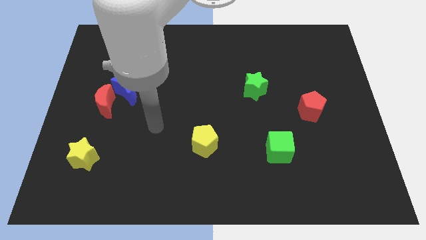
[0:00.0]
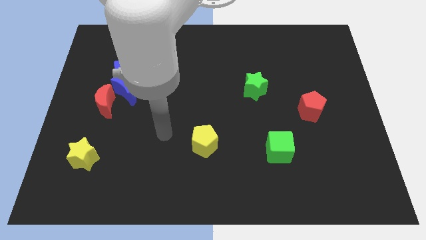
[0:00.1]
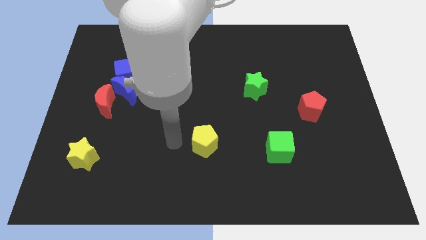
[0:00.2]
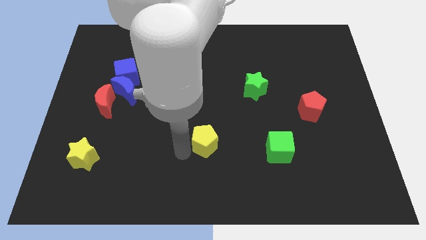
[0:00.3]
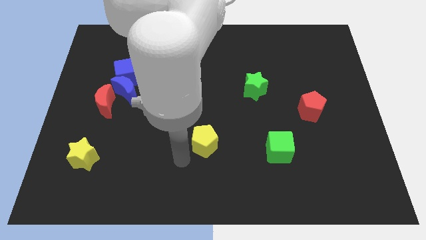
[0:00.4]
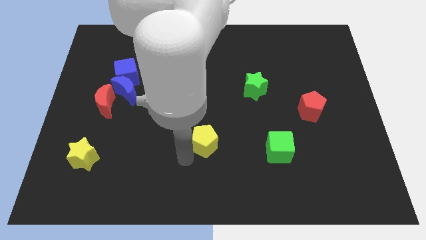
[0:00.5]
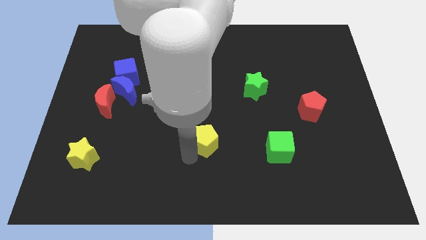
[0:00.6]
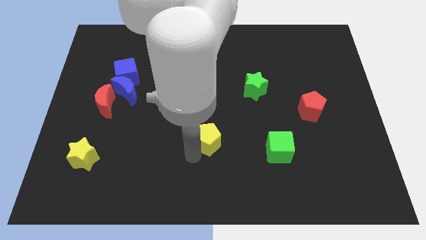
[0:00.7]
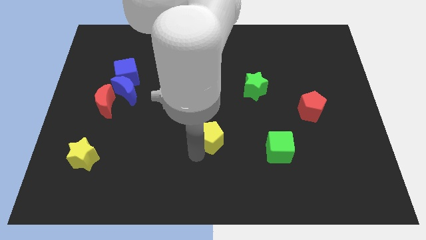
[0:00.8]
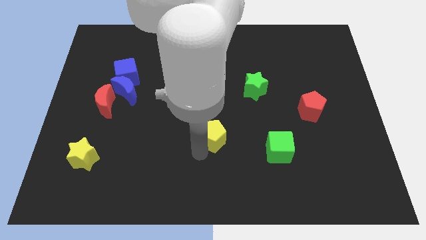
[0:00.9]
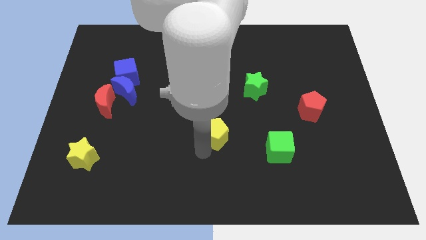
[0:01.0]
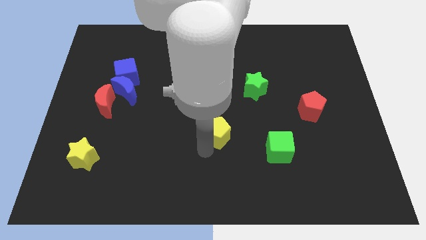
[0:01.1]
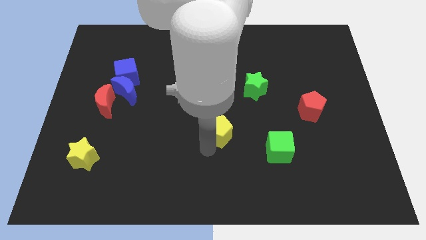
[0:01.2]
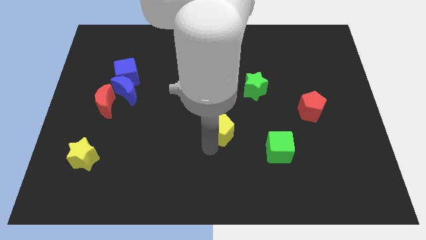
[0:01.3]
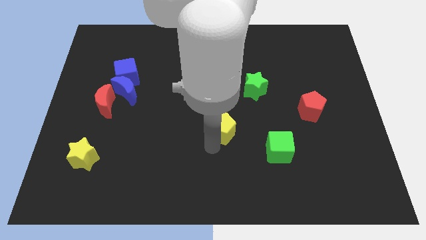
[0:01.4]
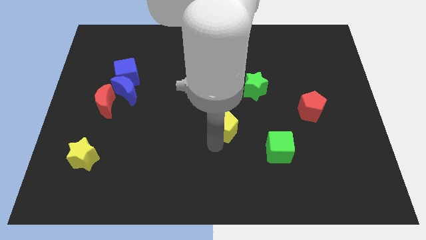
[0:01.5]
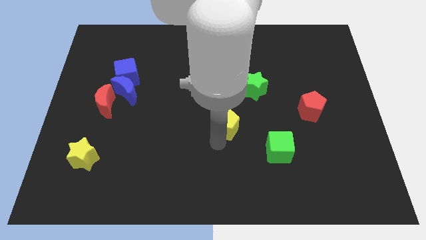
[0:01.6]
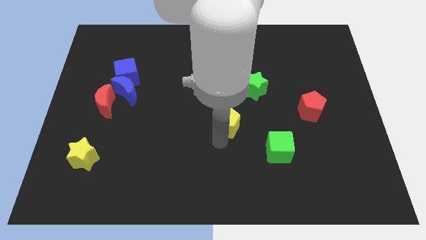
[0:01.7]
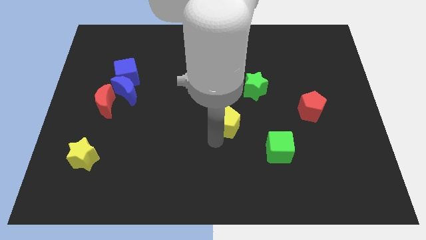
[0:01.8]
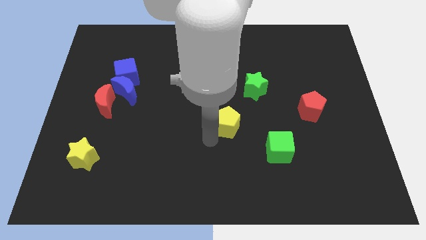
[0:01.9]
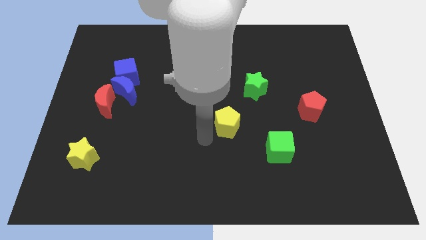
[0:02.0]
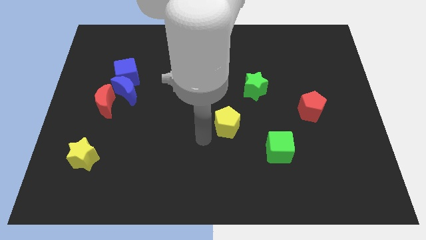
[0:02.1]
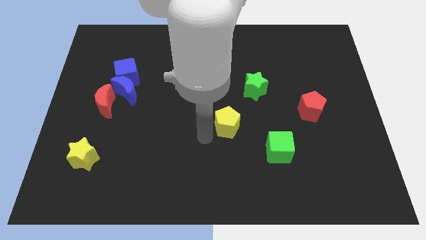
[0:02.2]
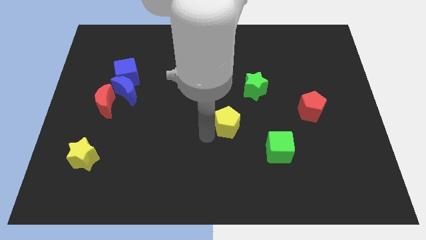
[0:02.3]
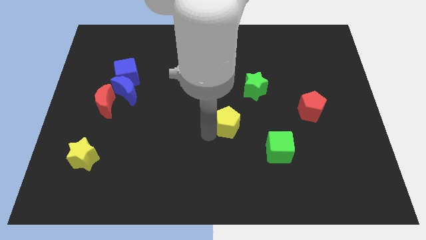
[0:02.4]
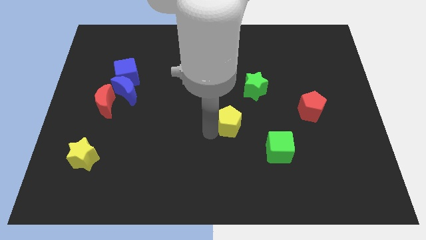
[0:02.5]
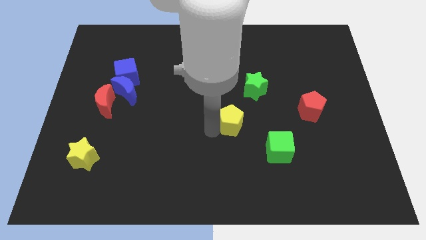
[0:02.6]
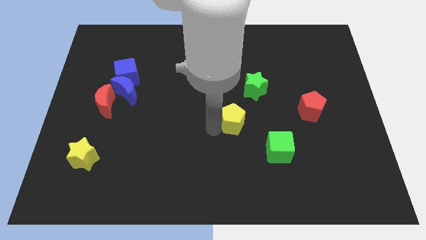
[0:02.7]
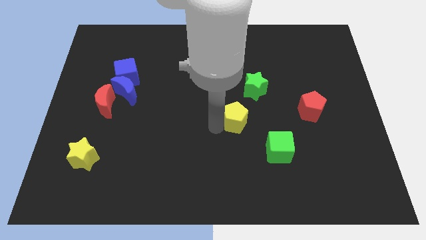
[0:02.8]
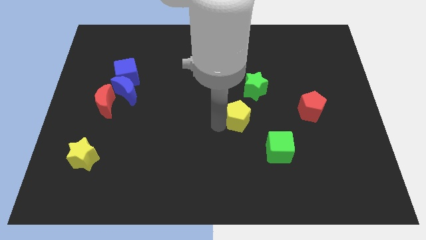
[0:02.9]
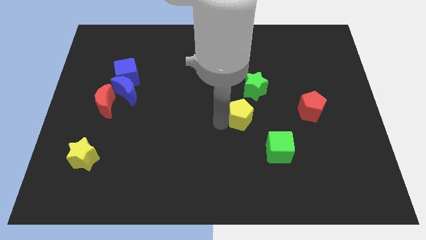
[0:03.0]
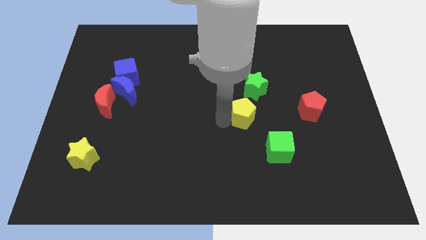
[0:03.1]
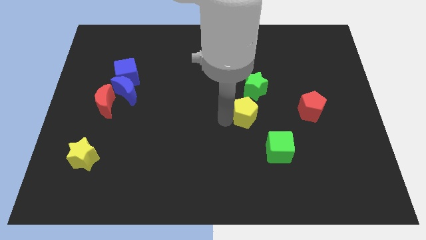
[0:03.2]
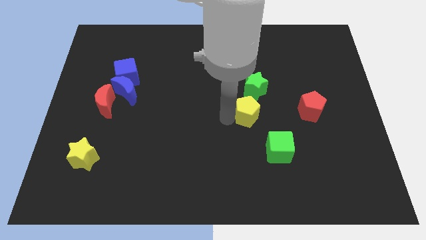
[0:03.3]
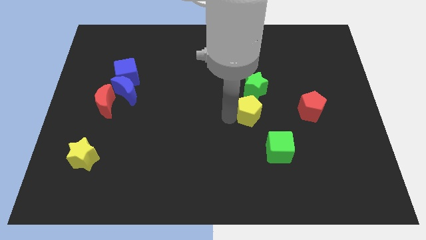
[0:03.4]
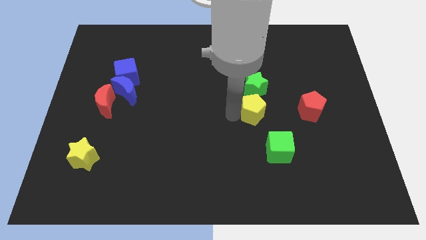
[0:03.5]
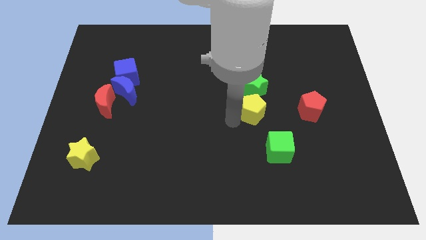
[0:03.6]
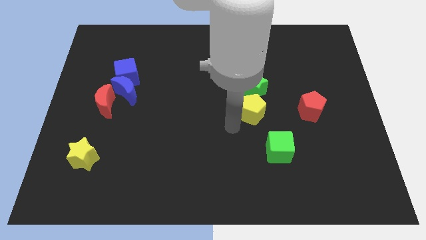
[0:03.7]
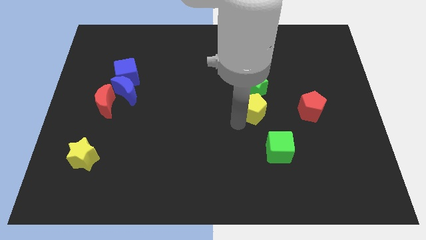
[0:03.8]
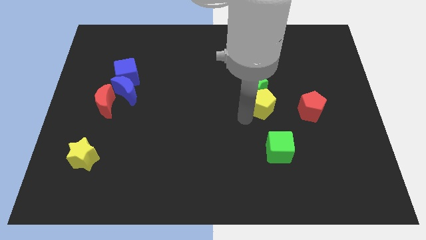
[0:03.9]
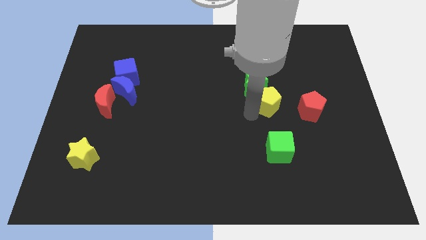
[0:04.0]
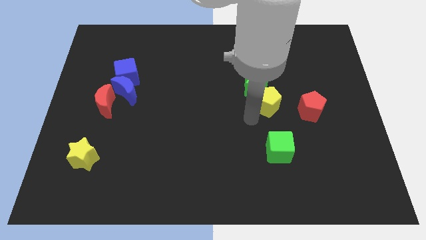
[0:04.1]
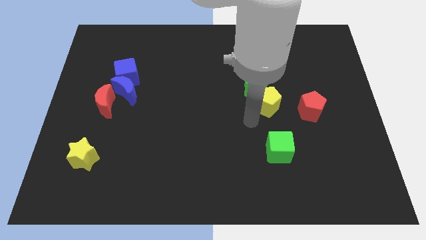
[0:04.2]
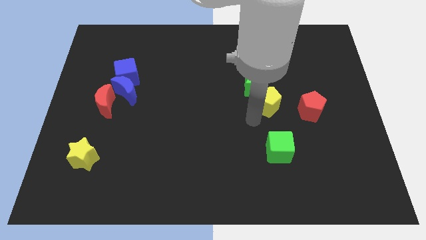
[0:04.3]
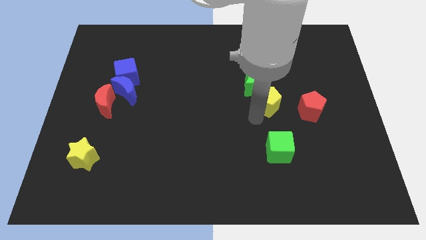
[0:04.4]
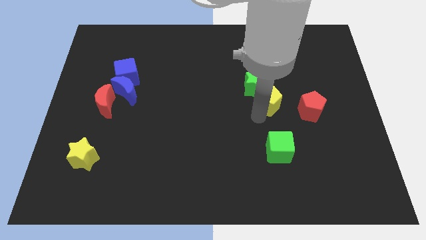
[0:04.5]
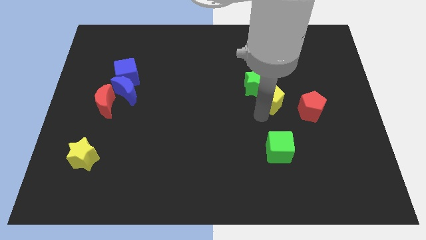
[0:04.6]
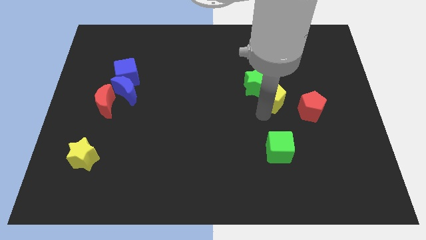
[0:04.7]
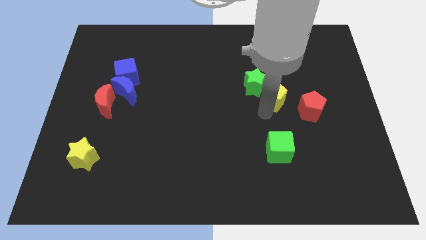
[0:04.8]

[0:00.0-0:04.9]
push the yellow pentagon up and to the right

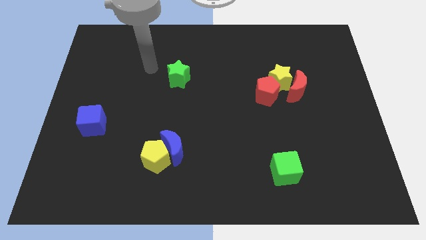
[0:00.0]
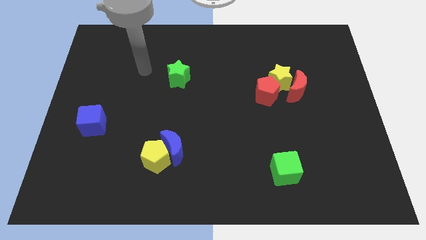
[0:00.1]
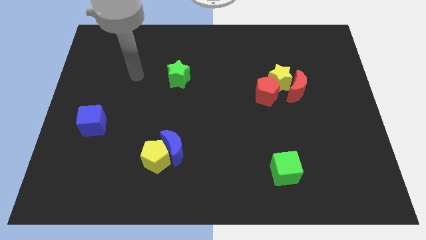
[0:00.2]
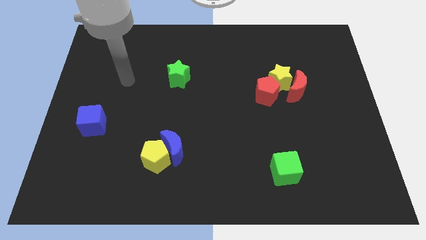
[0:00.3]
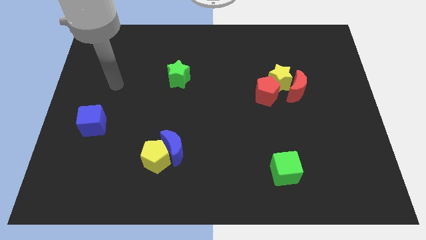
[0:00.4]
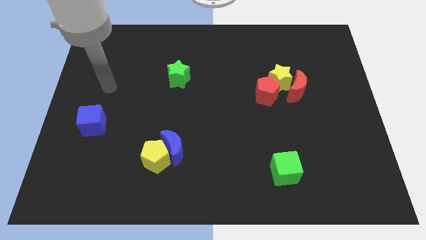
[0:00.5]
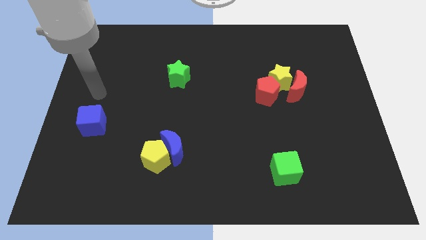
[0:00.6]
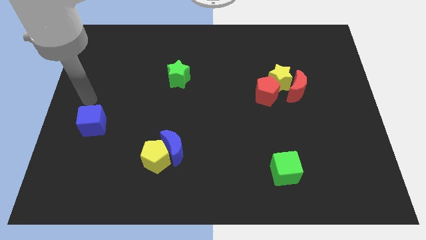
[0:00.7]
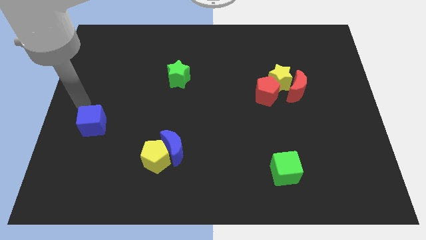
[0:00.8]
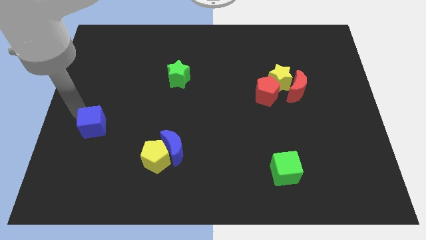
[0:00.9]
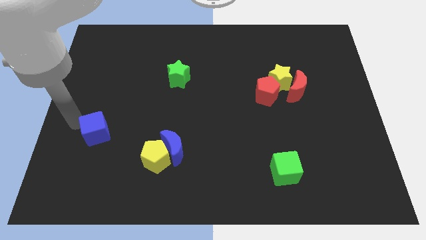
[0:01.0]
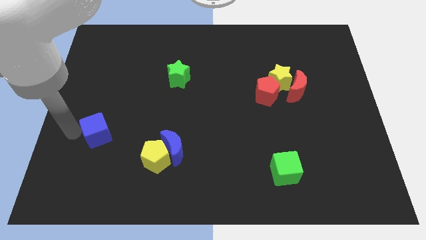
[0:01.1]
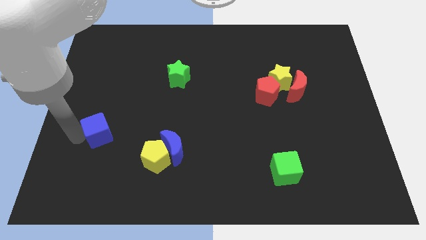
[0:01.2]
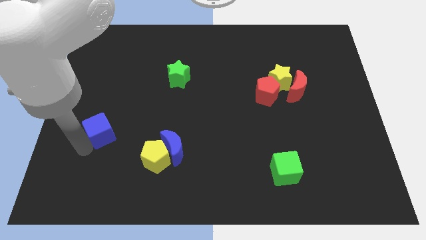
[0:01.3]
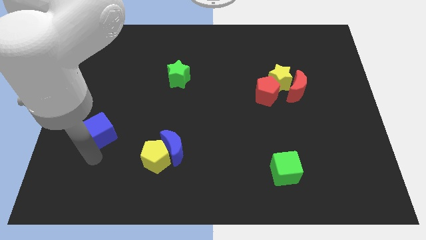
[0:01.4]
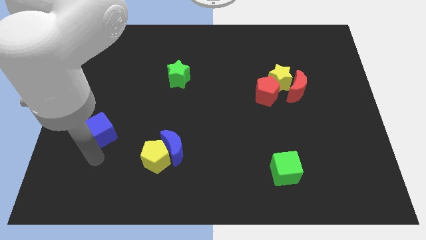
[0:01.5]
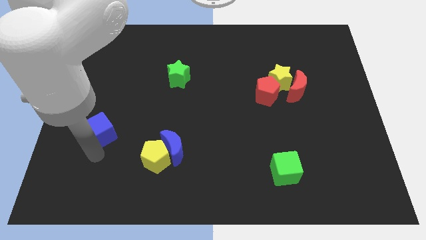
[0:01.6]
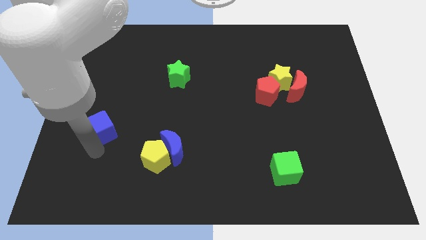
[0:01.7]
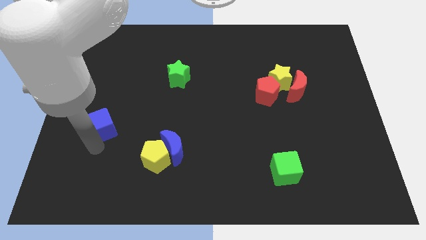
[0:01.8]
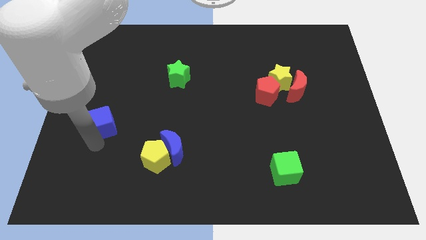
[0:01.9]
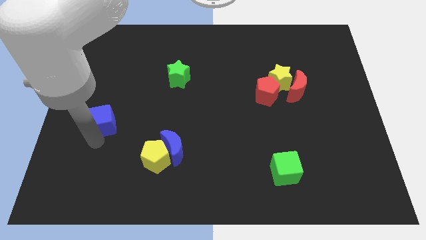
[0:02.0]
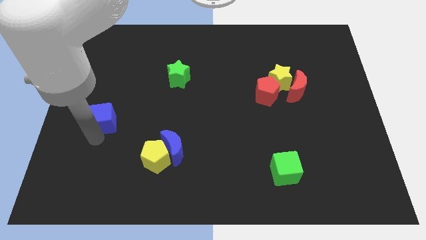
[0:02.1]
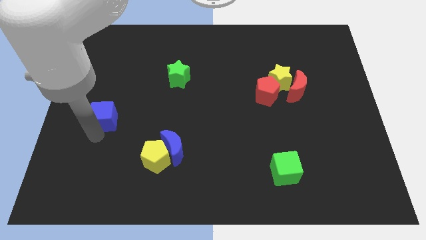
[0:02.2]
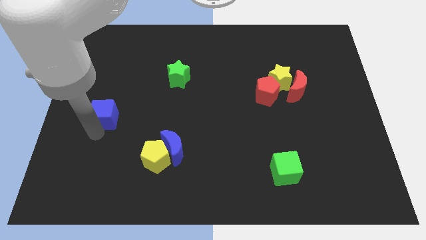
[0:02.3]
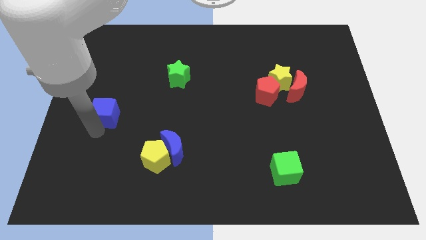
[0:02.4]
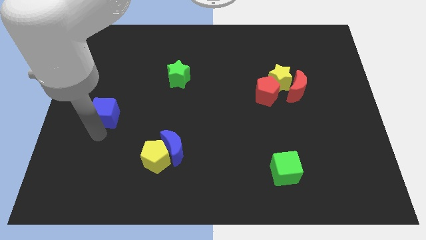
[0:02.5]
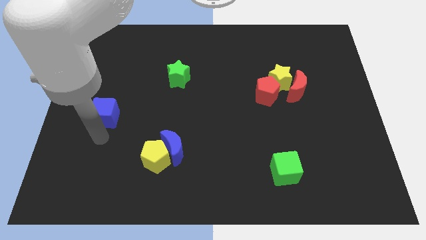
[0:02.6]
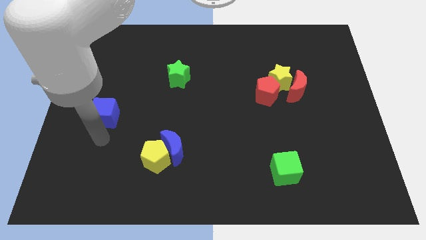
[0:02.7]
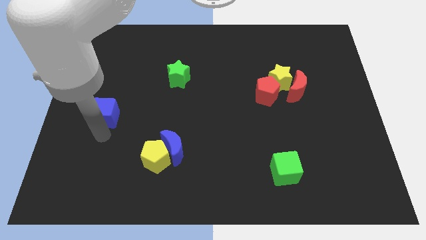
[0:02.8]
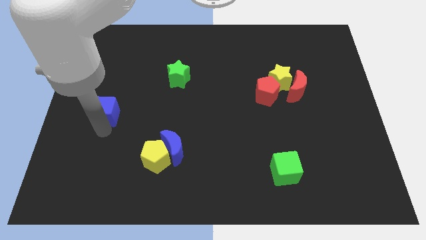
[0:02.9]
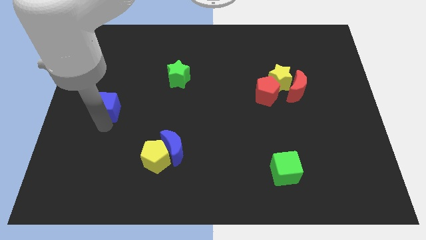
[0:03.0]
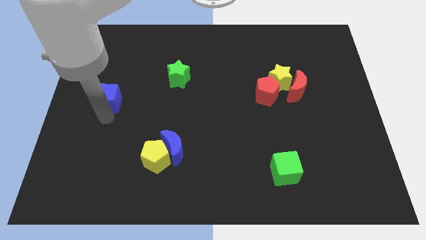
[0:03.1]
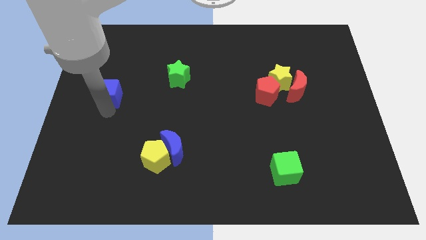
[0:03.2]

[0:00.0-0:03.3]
push the blue cube upwards a little bit

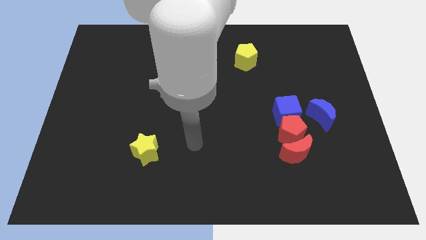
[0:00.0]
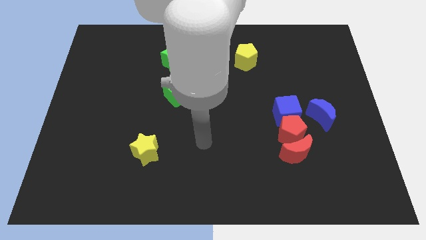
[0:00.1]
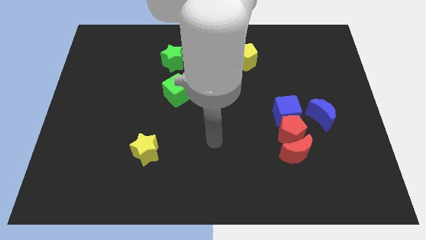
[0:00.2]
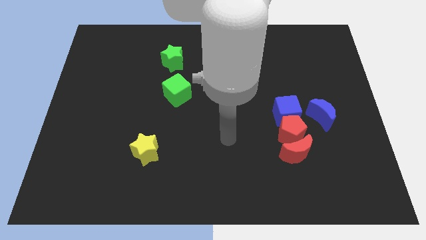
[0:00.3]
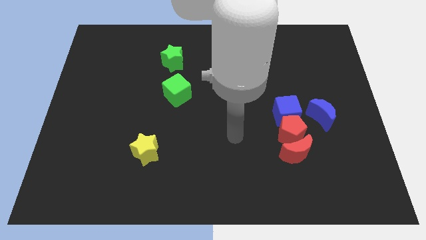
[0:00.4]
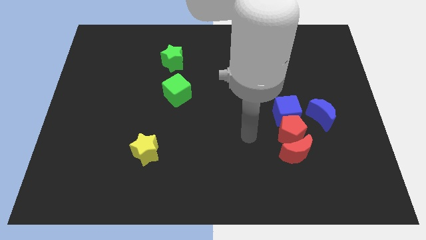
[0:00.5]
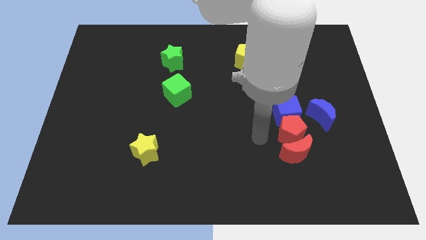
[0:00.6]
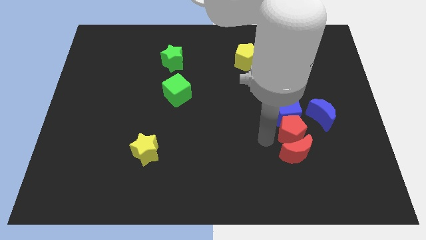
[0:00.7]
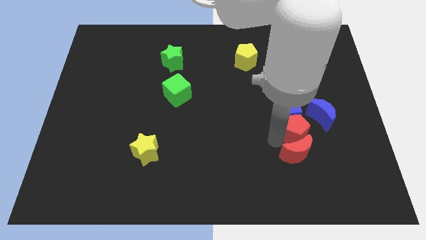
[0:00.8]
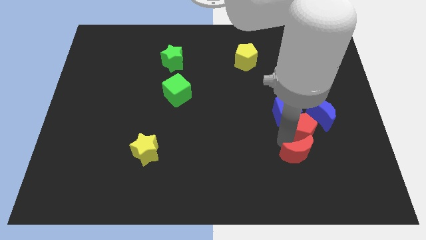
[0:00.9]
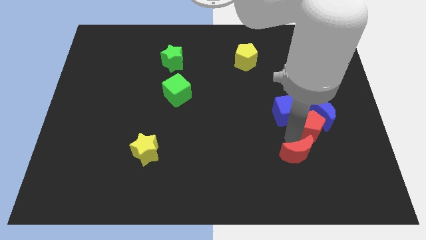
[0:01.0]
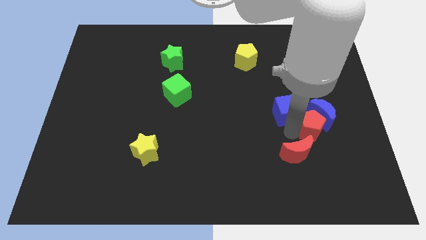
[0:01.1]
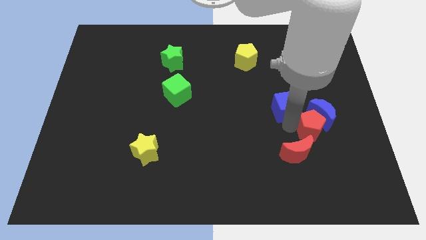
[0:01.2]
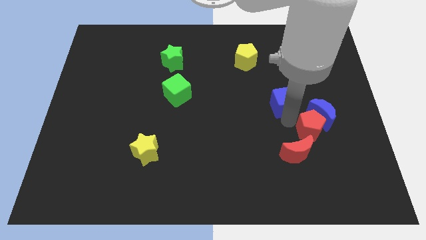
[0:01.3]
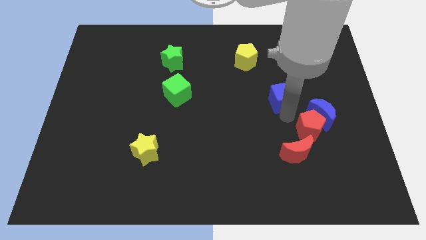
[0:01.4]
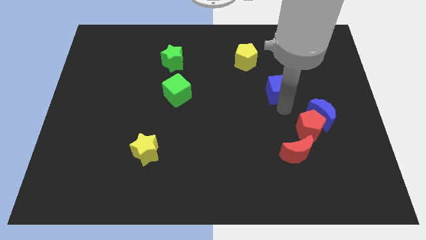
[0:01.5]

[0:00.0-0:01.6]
slide the blue cube upwards a bit
